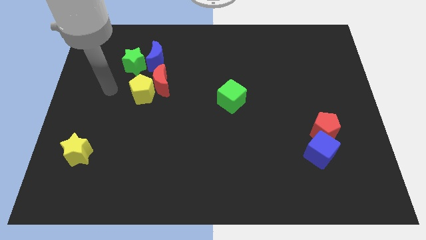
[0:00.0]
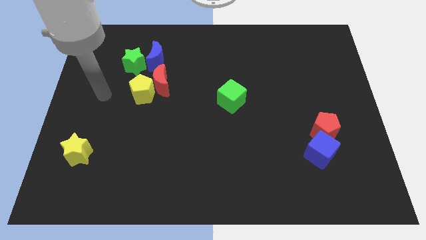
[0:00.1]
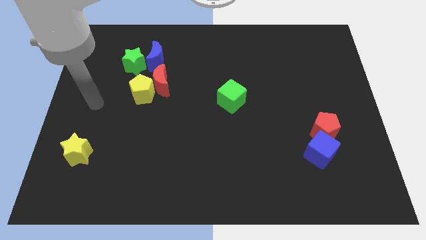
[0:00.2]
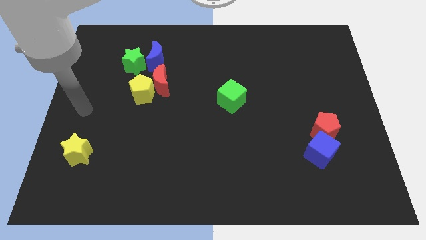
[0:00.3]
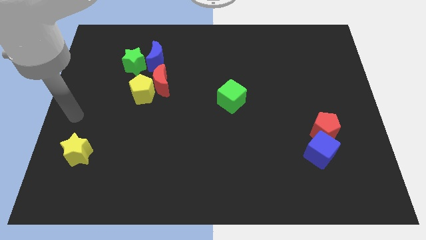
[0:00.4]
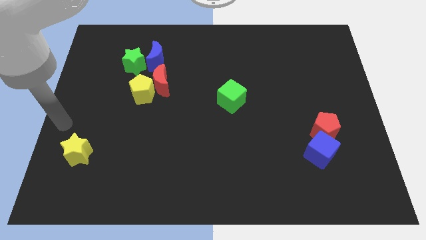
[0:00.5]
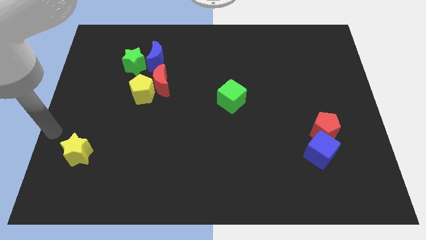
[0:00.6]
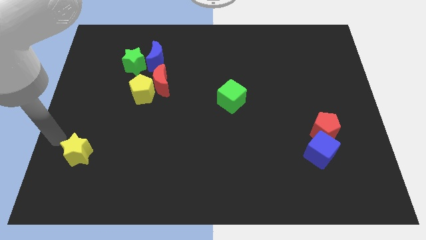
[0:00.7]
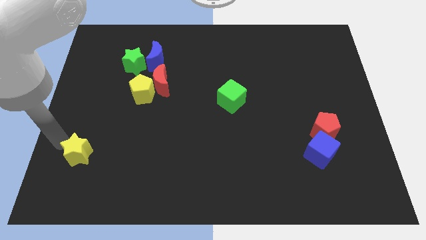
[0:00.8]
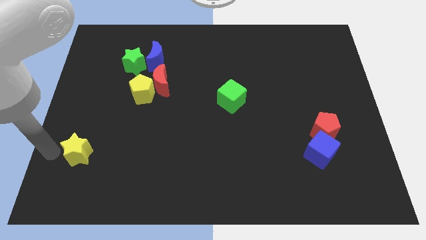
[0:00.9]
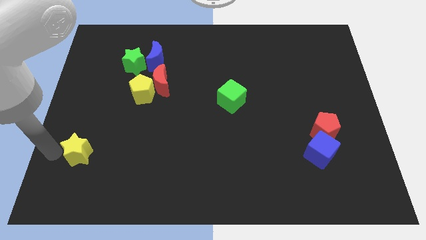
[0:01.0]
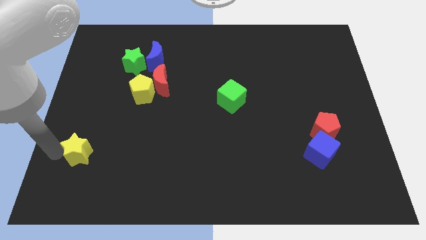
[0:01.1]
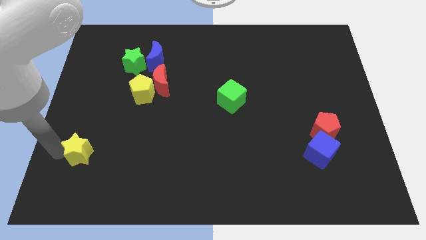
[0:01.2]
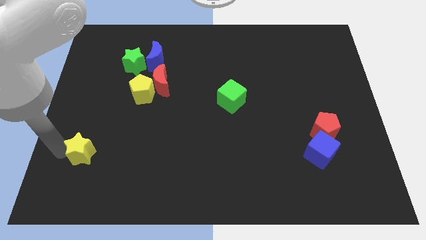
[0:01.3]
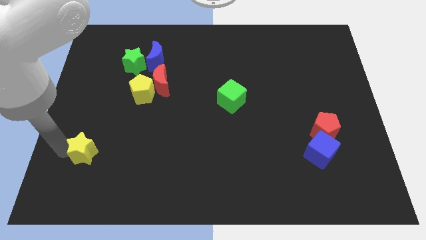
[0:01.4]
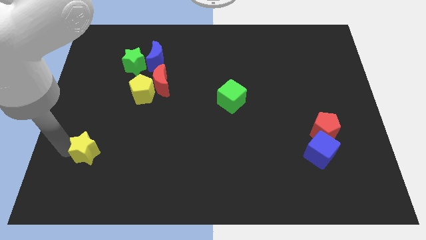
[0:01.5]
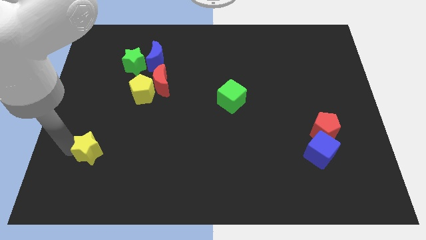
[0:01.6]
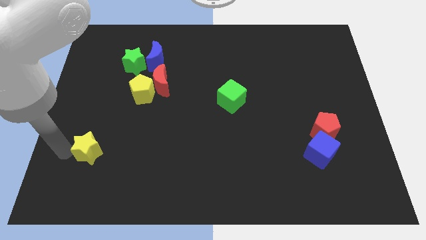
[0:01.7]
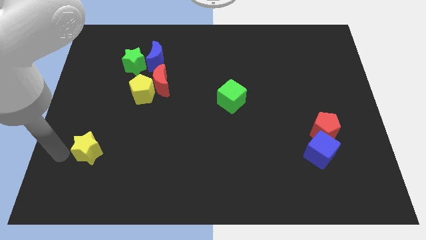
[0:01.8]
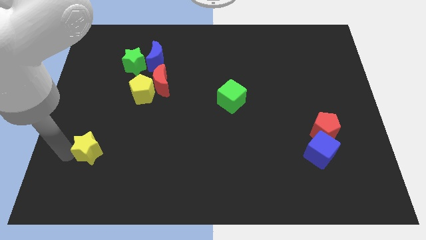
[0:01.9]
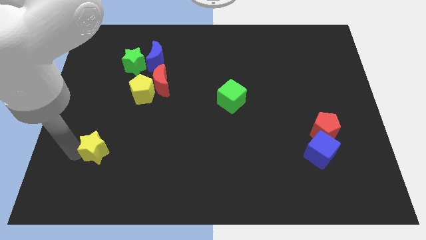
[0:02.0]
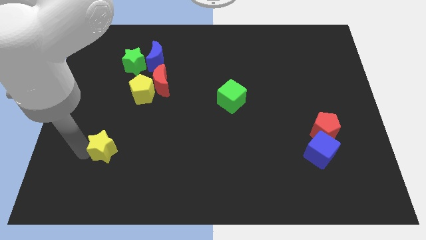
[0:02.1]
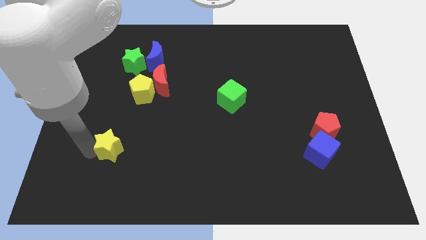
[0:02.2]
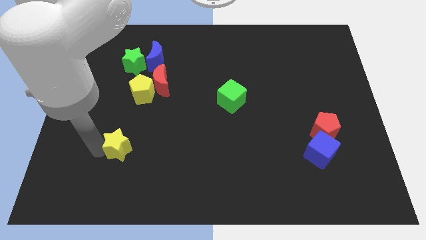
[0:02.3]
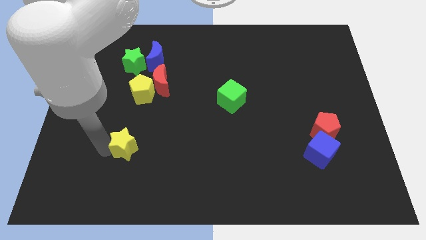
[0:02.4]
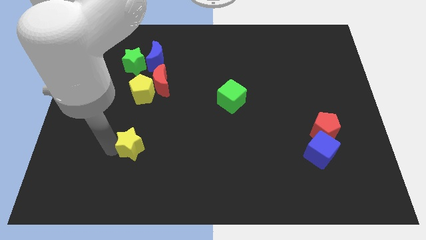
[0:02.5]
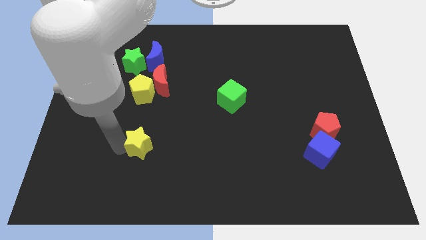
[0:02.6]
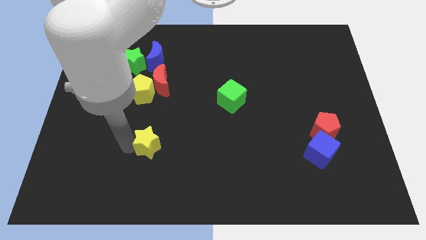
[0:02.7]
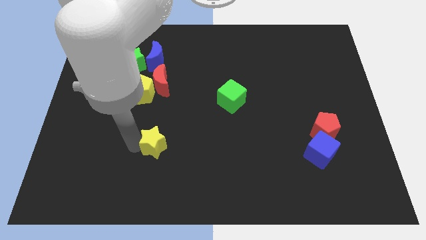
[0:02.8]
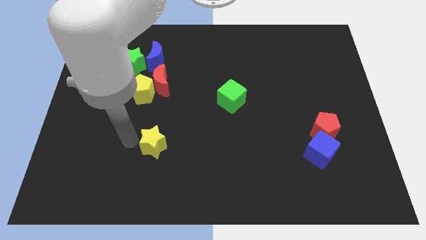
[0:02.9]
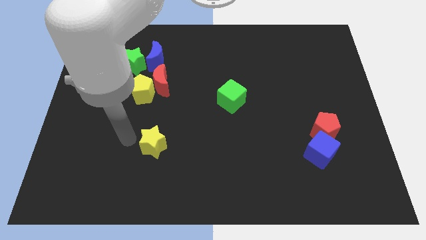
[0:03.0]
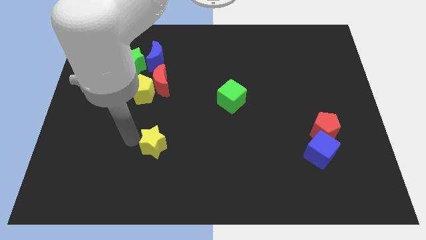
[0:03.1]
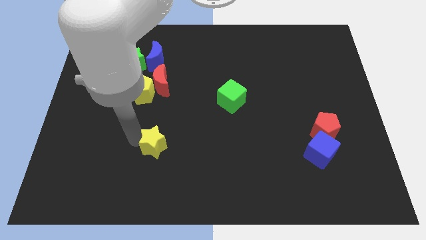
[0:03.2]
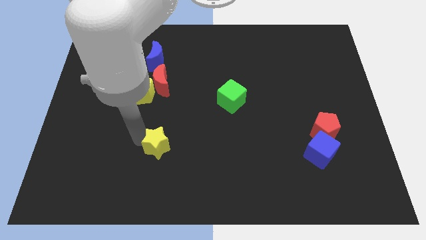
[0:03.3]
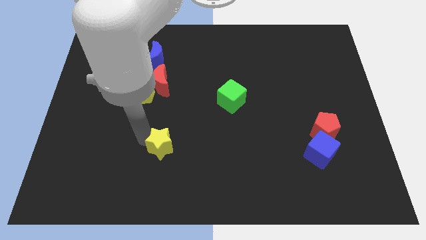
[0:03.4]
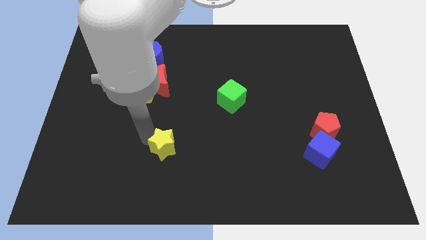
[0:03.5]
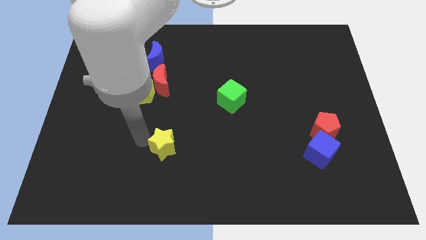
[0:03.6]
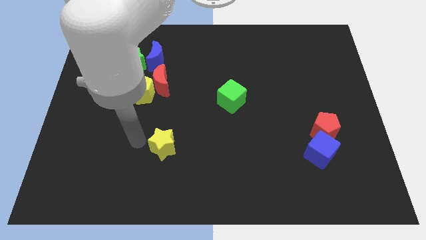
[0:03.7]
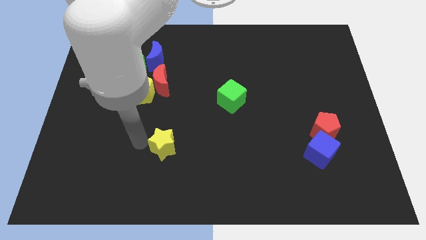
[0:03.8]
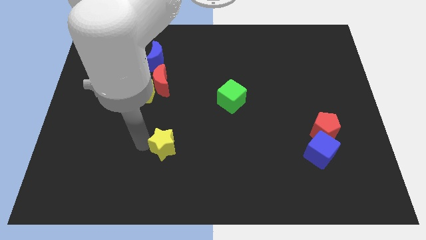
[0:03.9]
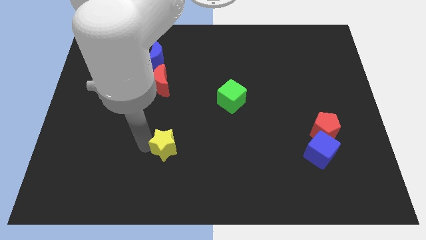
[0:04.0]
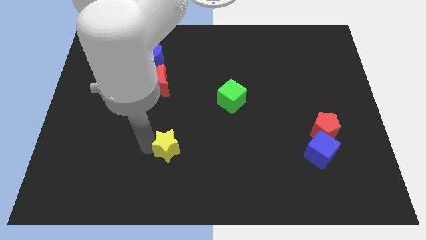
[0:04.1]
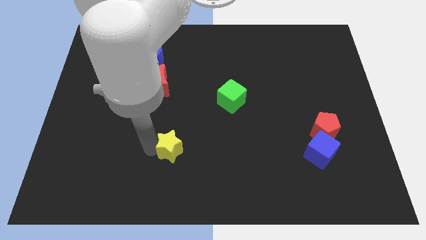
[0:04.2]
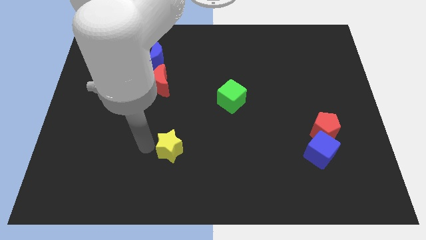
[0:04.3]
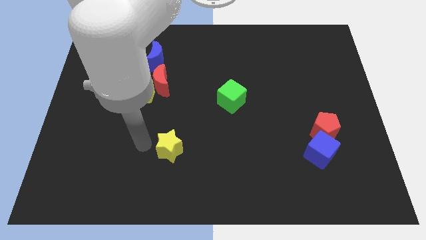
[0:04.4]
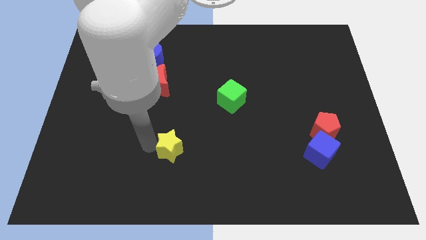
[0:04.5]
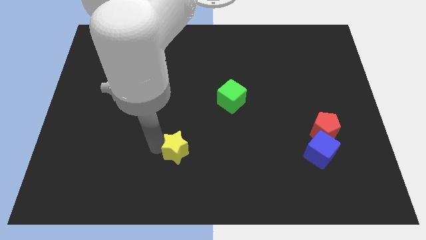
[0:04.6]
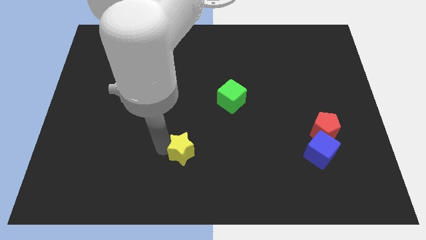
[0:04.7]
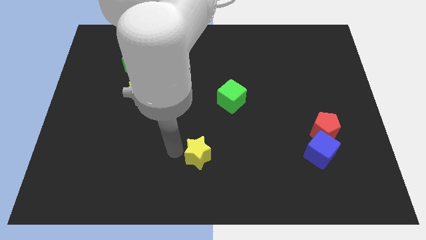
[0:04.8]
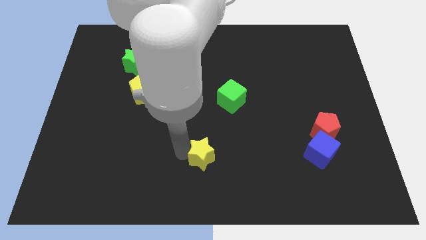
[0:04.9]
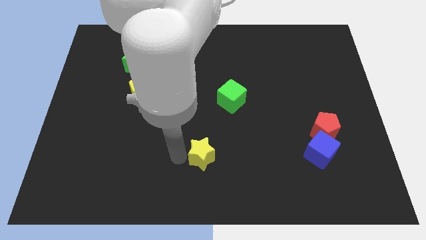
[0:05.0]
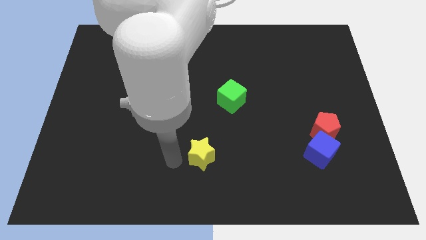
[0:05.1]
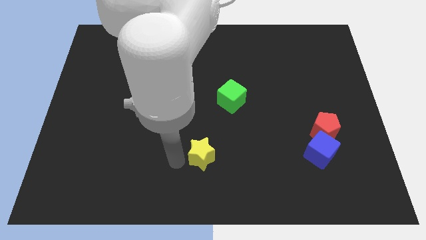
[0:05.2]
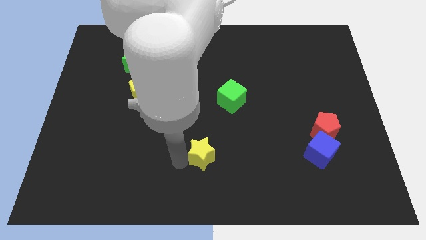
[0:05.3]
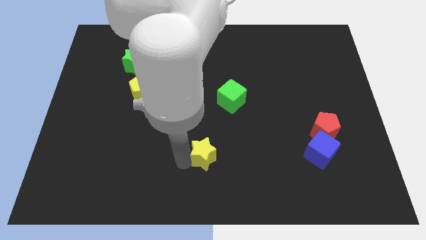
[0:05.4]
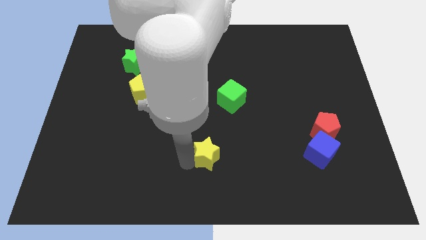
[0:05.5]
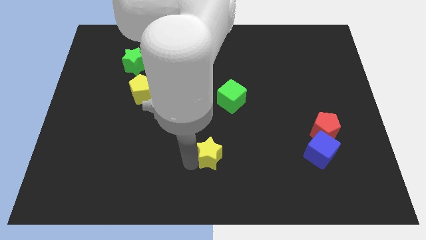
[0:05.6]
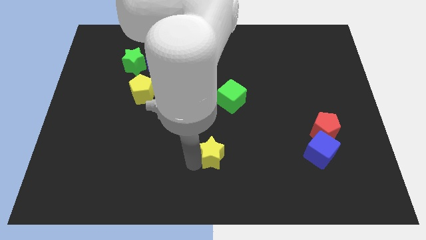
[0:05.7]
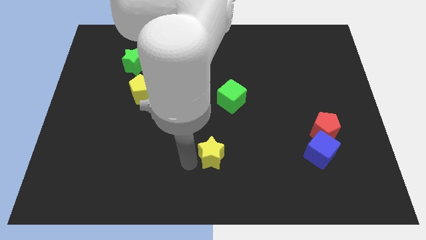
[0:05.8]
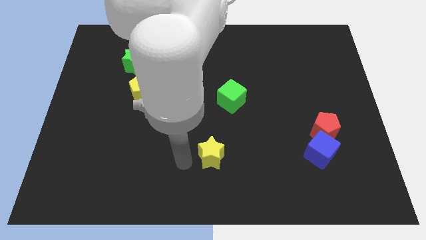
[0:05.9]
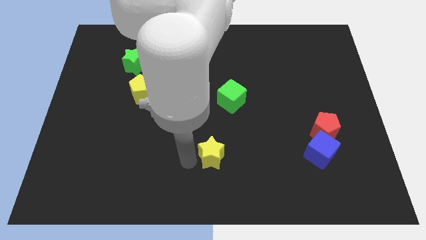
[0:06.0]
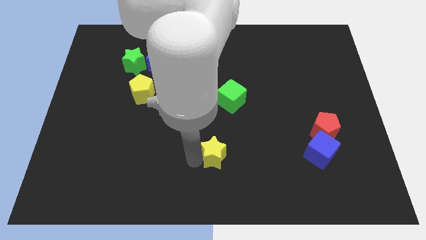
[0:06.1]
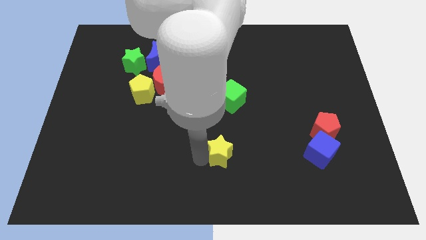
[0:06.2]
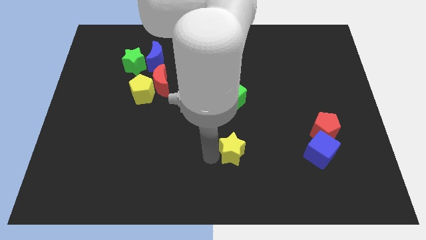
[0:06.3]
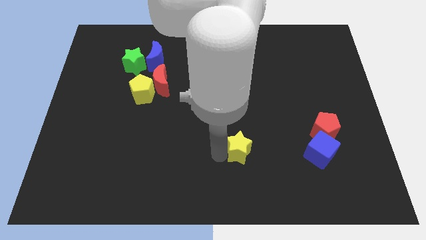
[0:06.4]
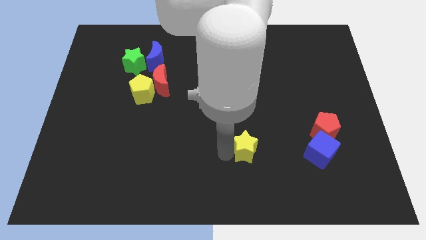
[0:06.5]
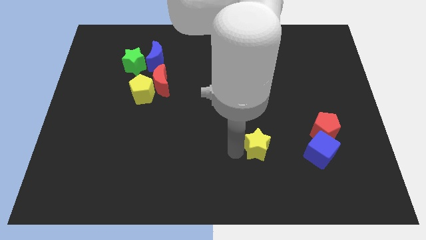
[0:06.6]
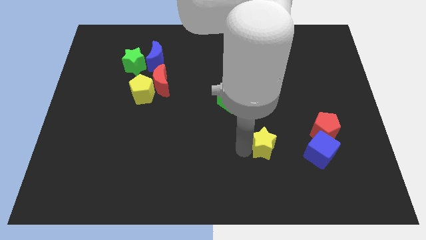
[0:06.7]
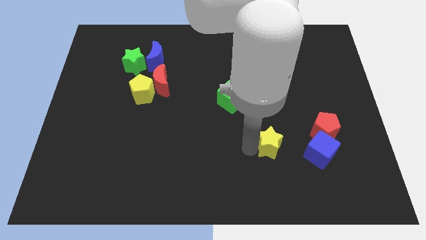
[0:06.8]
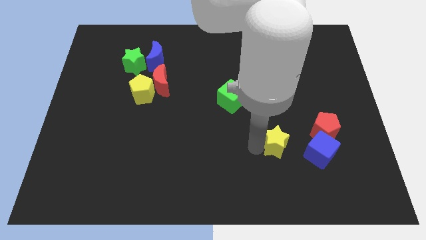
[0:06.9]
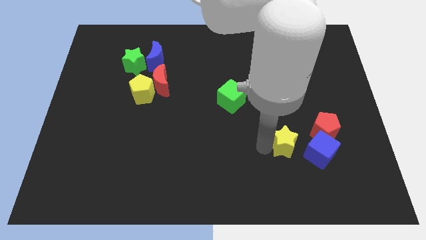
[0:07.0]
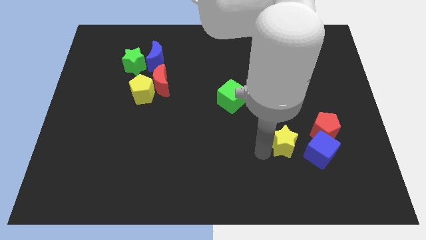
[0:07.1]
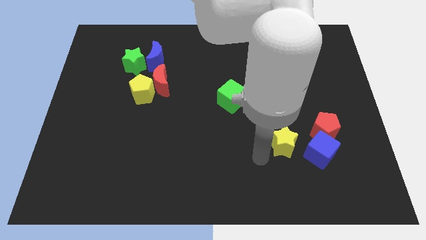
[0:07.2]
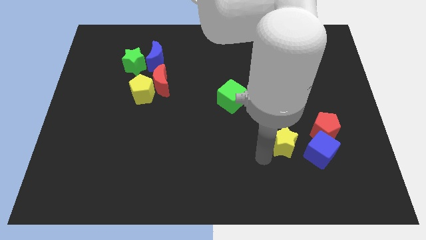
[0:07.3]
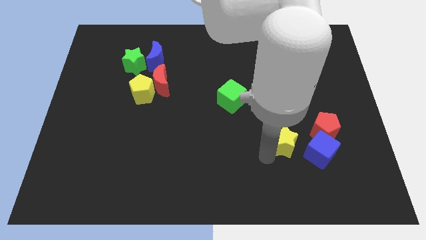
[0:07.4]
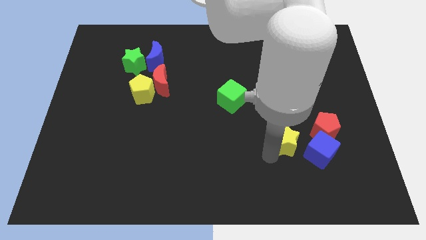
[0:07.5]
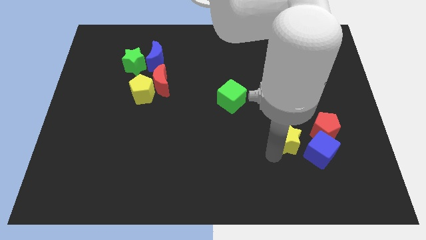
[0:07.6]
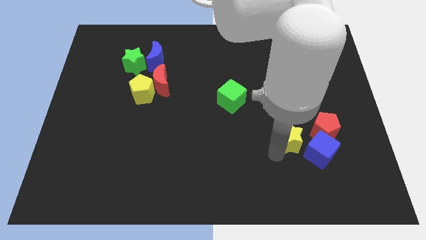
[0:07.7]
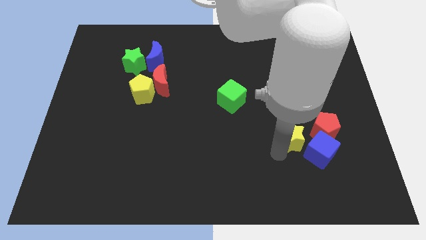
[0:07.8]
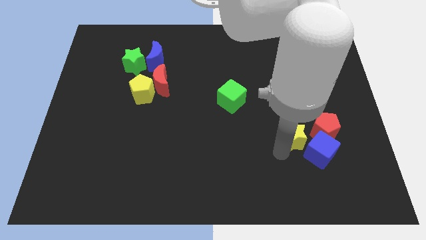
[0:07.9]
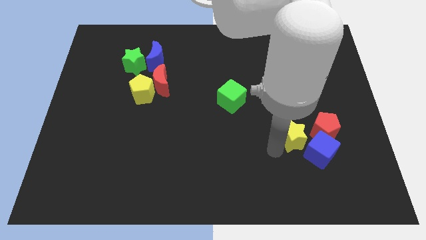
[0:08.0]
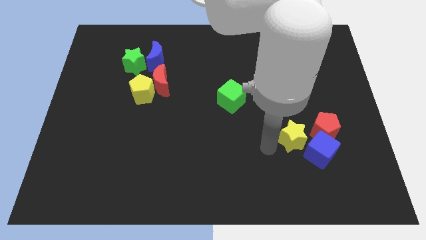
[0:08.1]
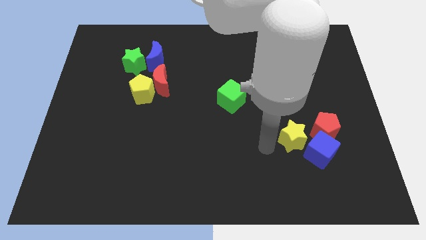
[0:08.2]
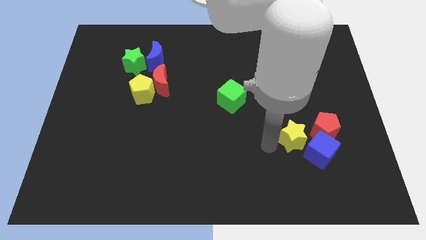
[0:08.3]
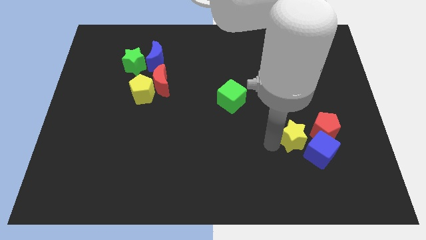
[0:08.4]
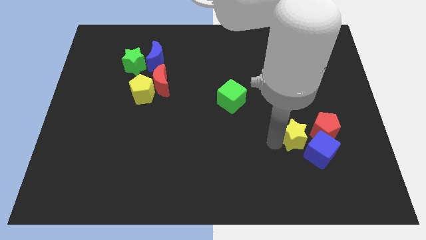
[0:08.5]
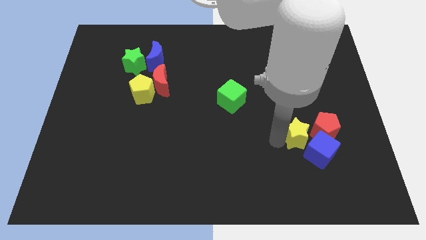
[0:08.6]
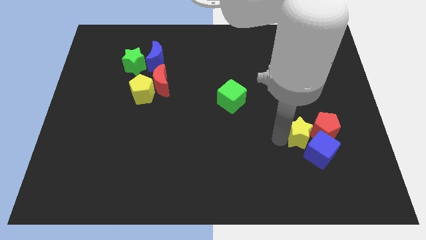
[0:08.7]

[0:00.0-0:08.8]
slide the yellow star close to the red pentagon
